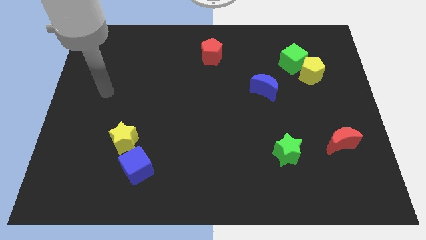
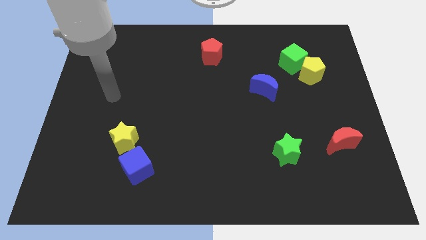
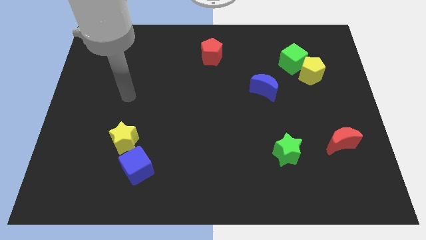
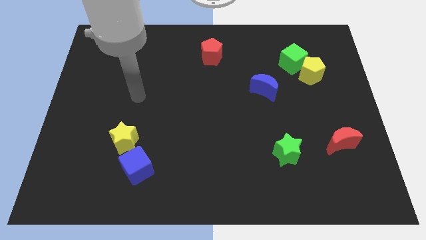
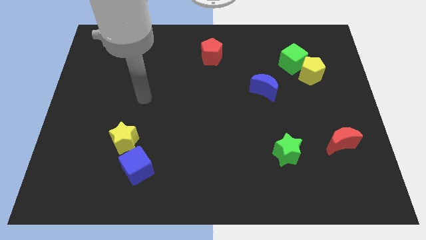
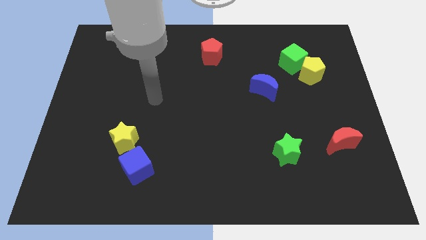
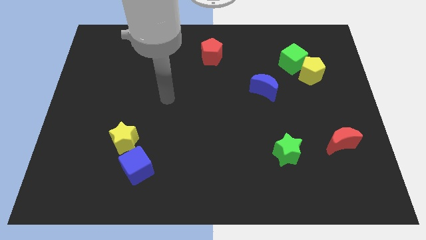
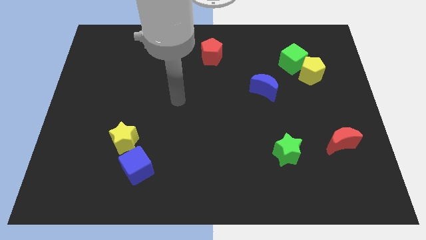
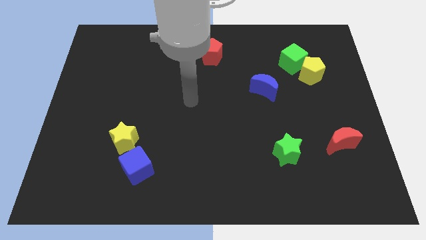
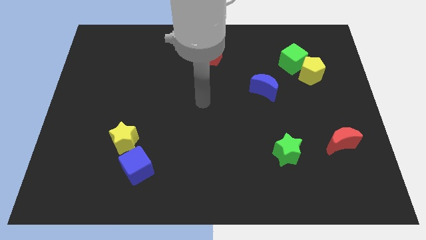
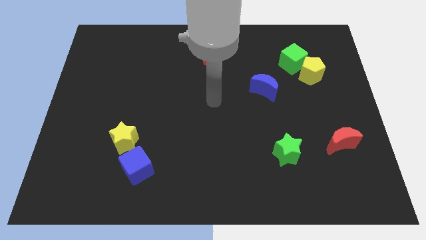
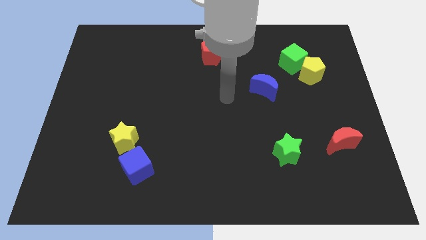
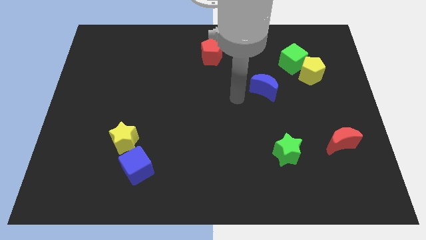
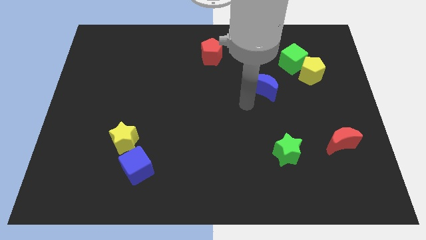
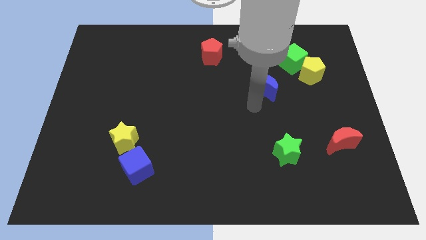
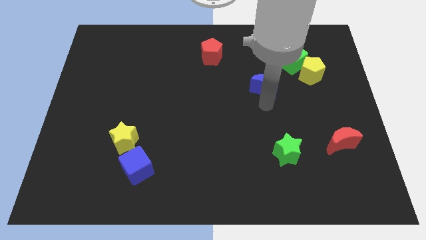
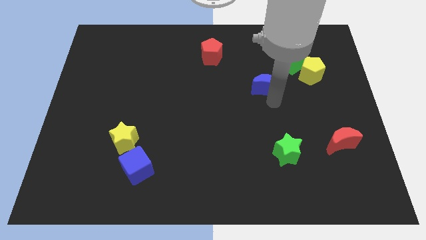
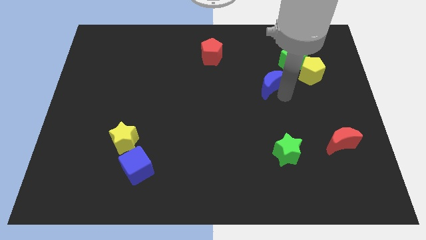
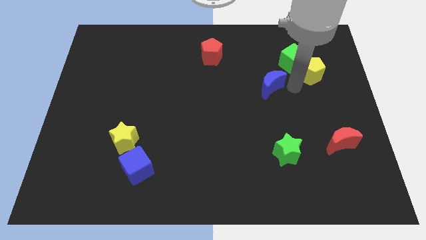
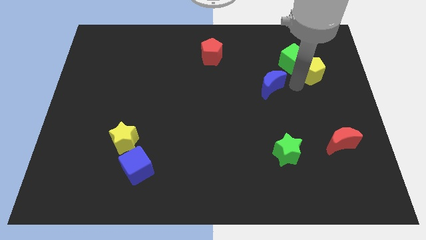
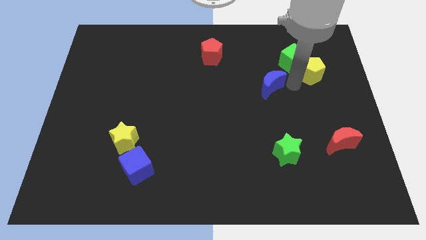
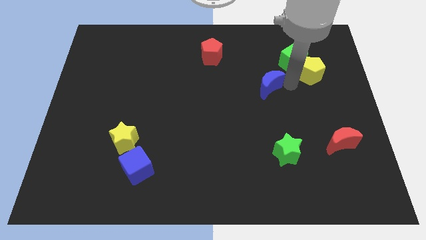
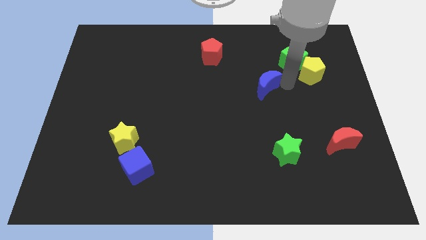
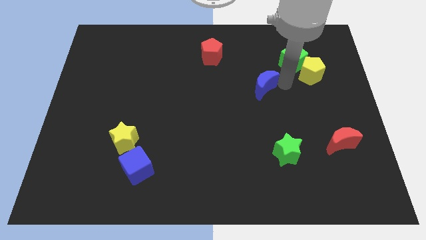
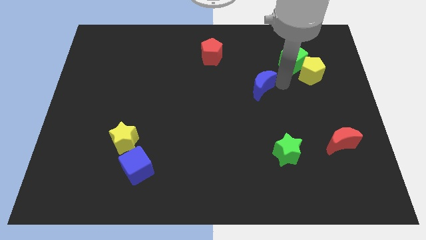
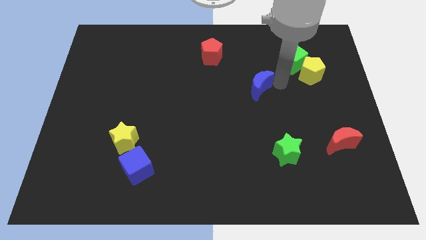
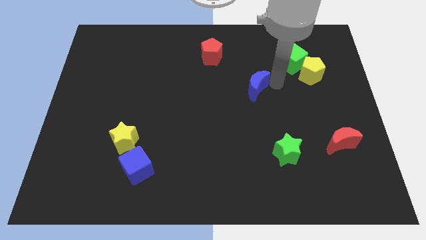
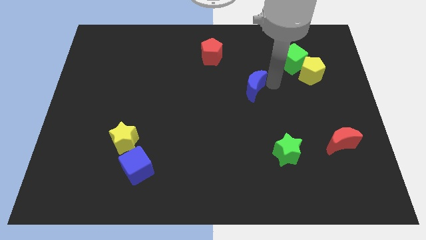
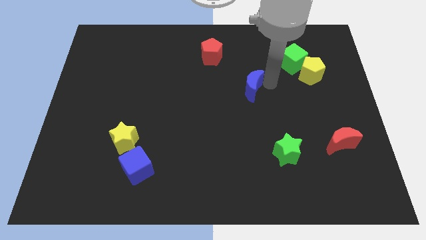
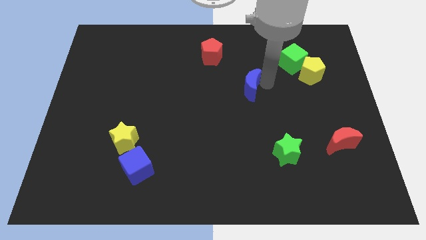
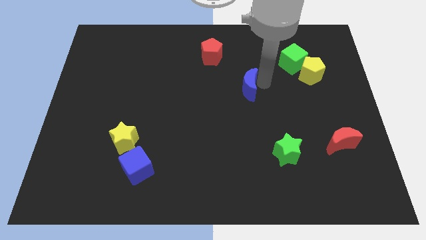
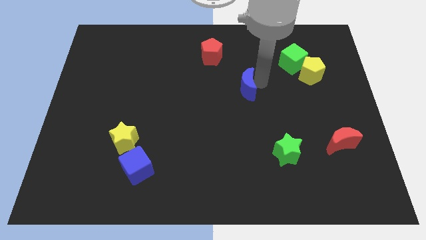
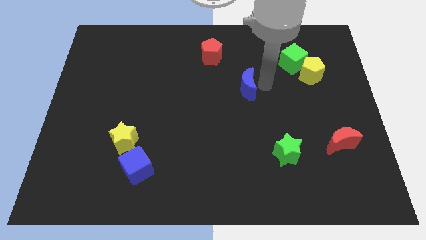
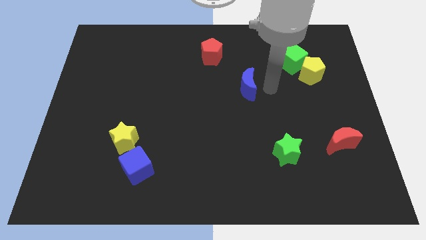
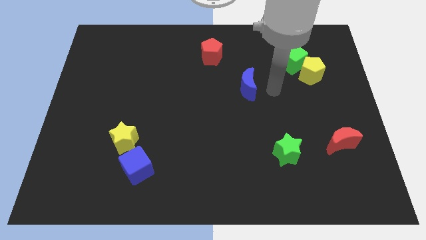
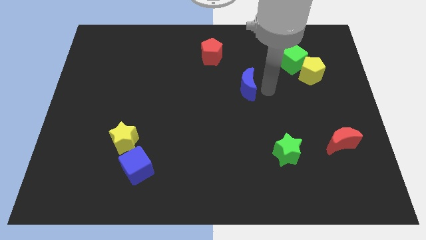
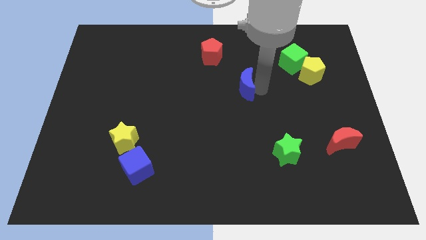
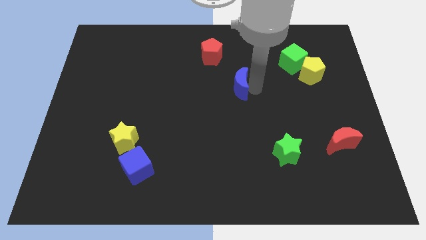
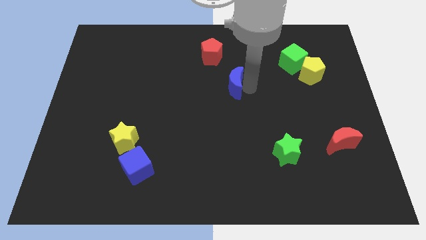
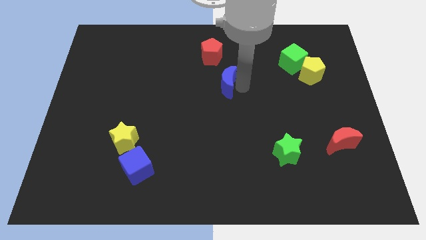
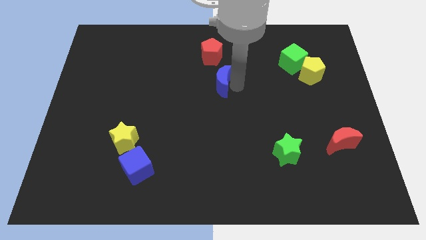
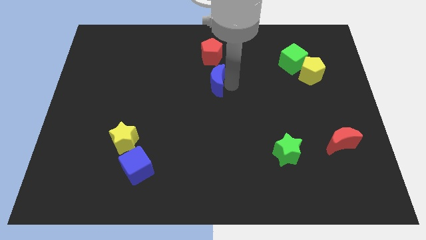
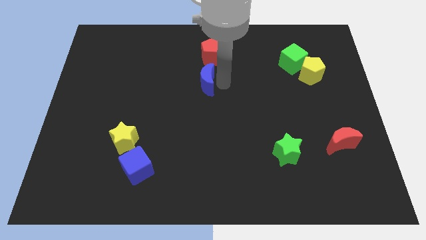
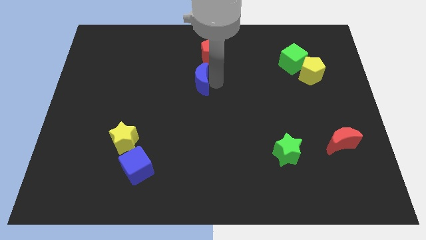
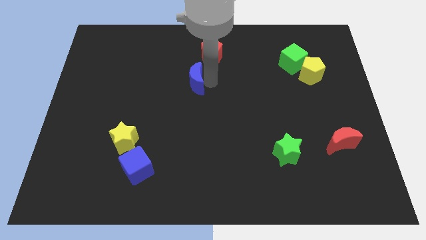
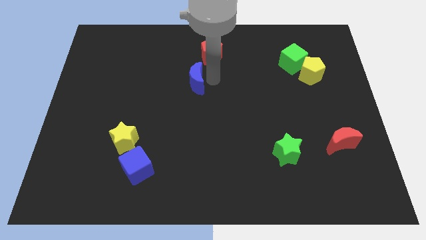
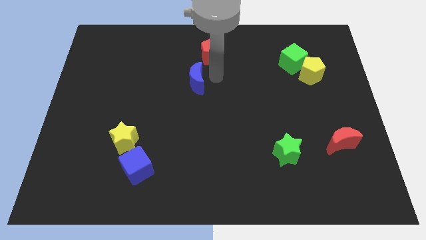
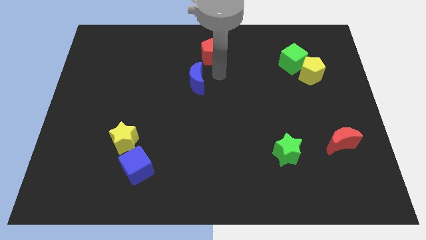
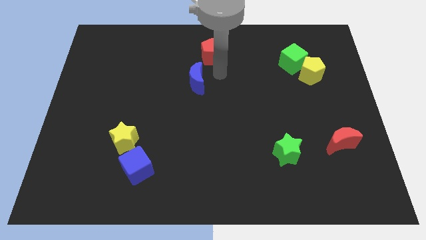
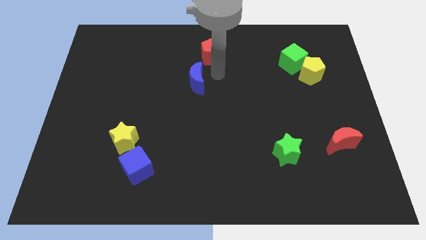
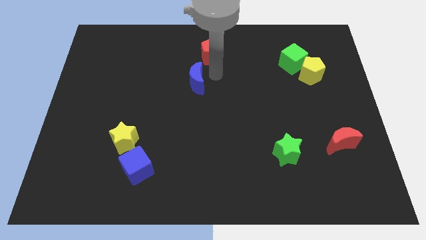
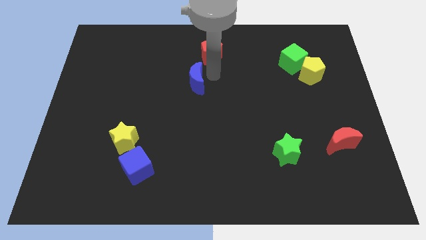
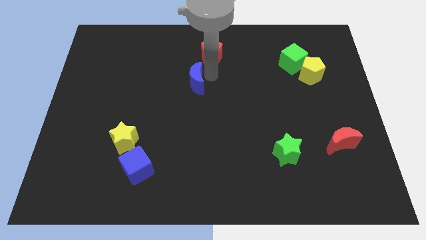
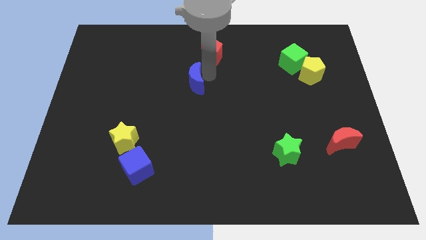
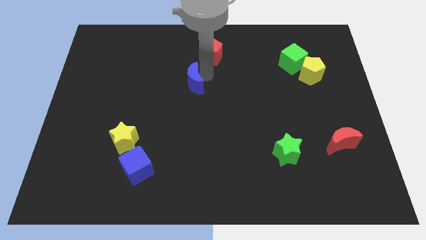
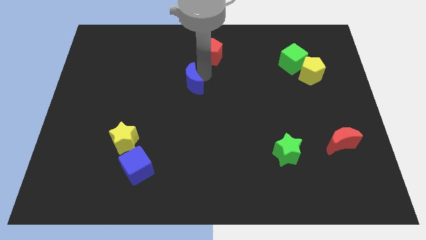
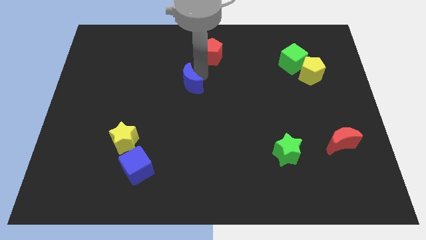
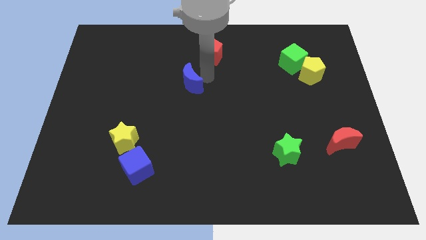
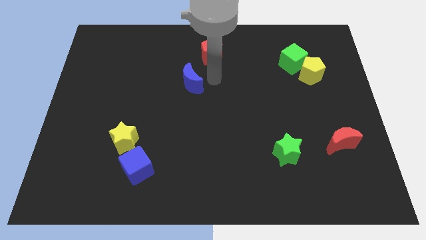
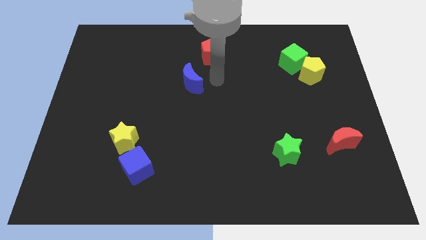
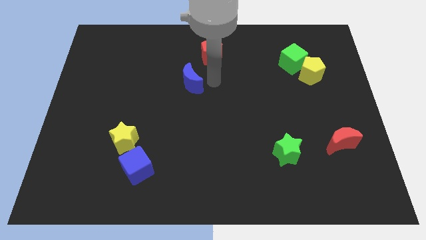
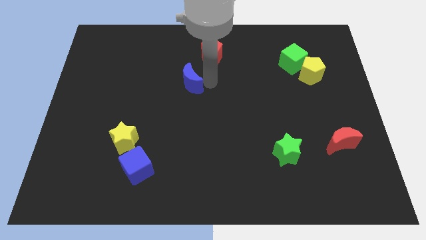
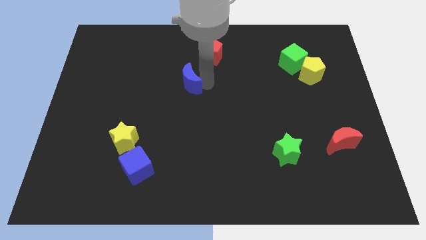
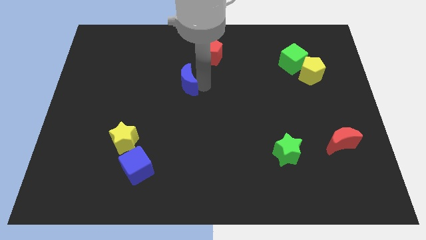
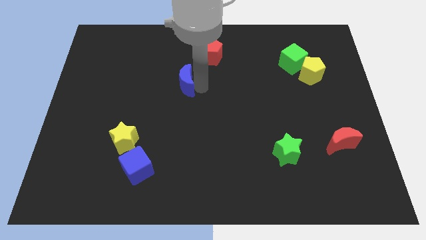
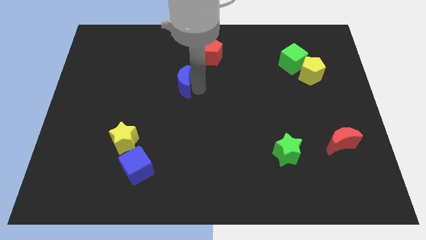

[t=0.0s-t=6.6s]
slide the blue moon to the left

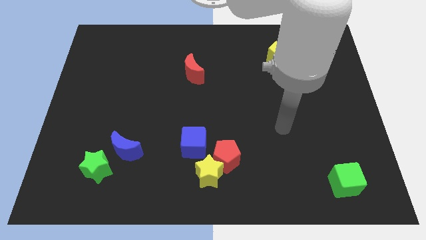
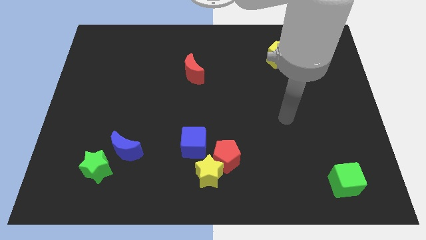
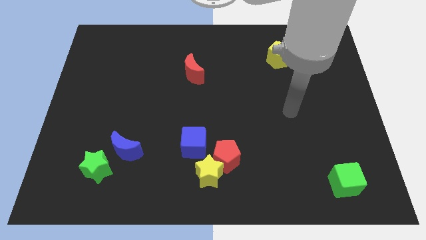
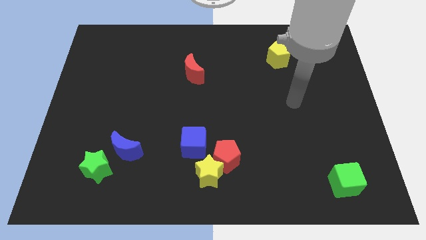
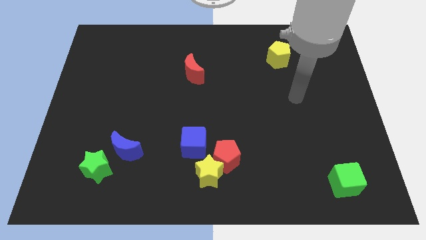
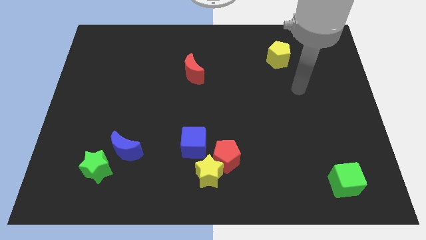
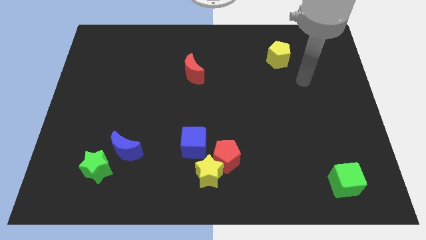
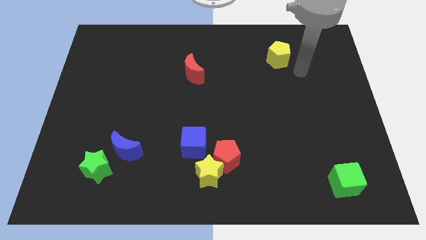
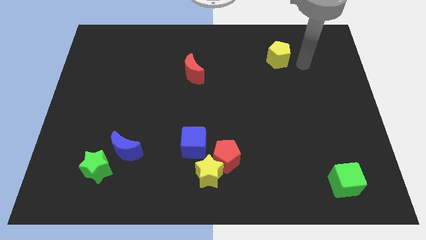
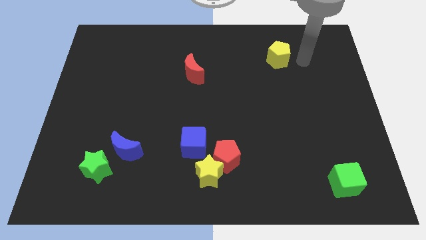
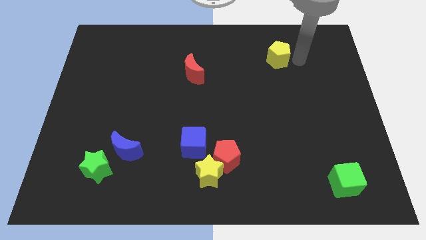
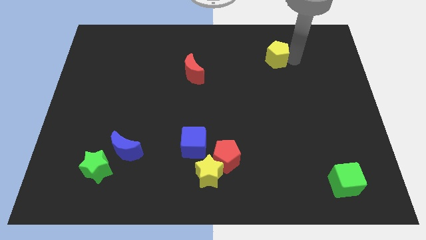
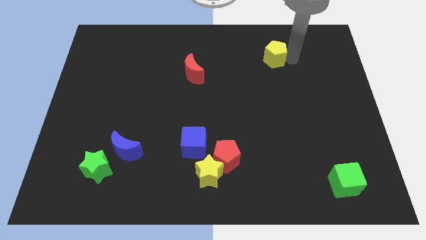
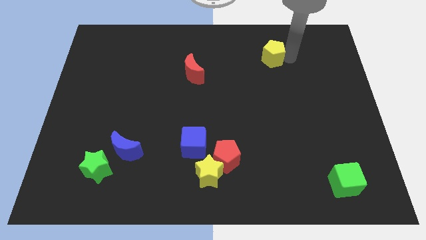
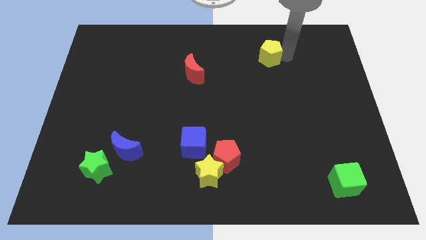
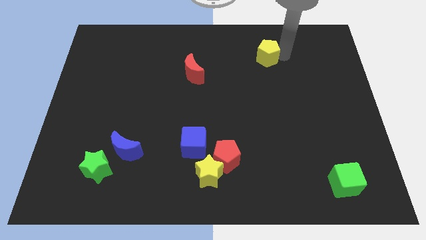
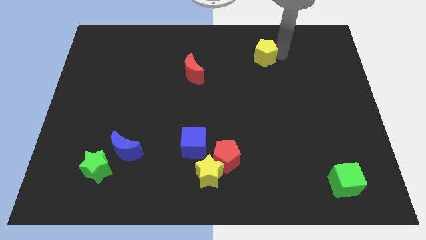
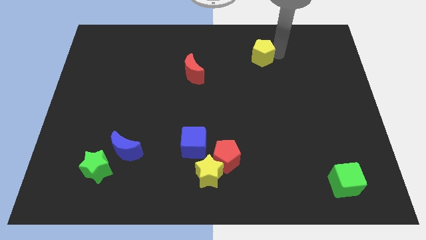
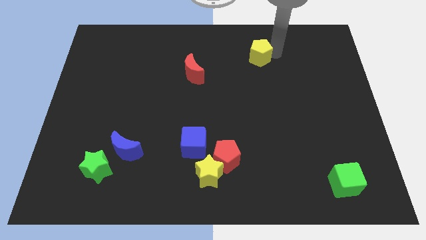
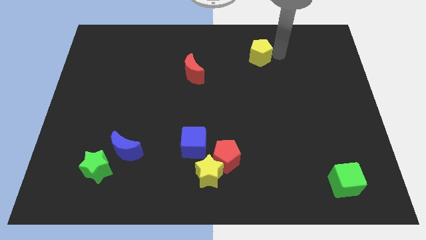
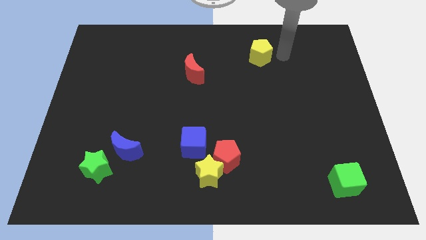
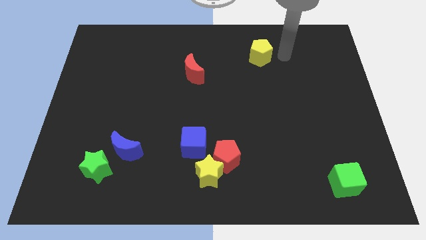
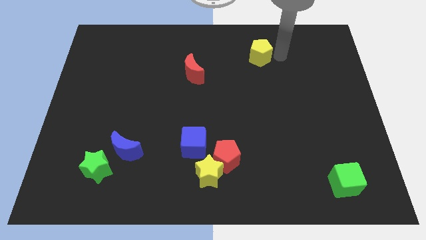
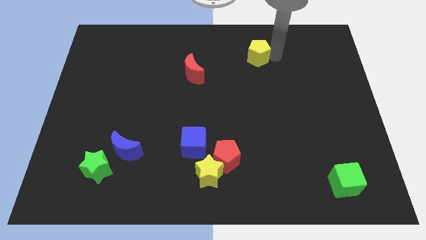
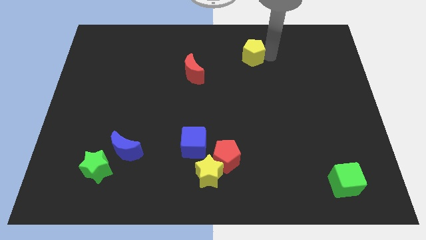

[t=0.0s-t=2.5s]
slightly slide the yellow pentagon to the left
